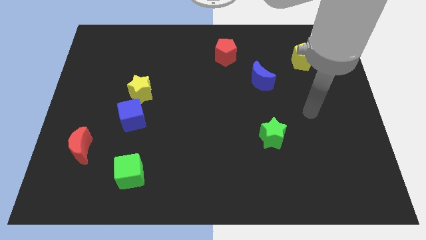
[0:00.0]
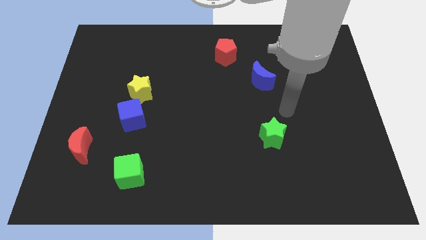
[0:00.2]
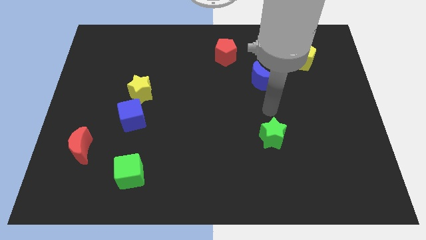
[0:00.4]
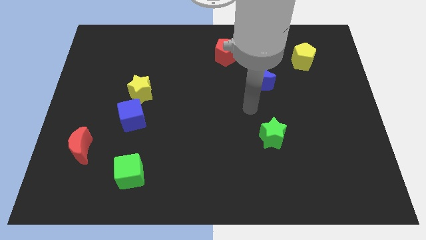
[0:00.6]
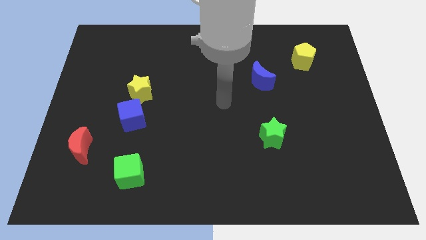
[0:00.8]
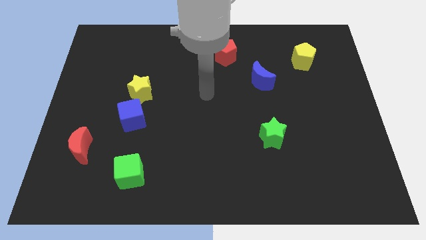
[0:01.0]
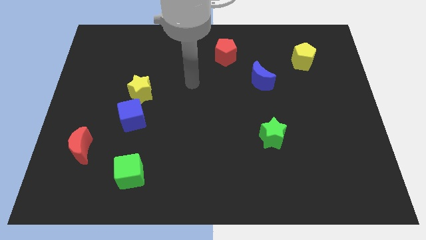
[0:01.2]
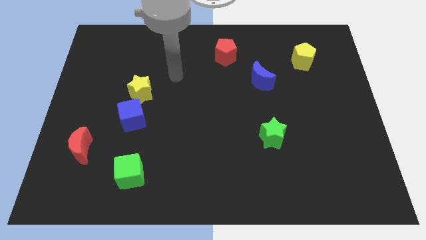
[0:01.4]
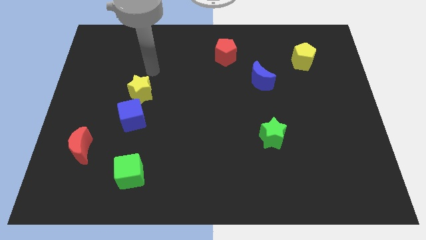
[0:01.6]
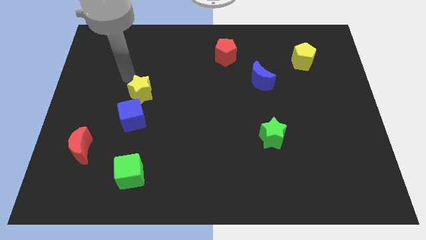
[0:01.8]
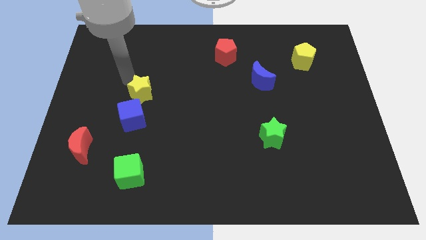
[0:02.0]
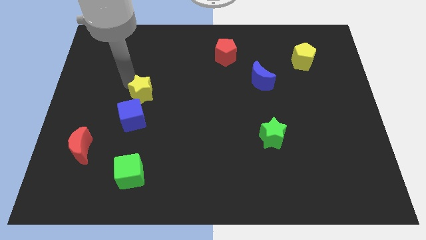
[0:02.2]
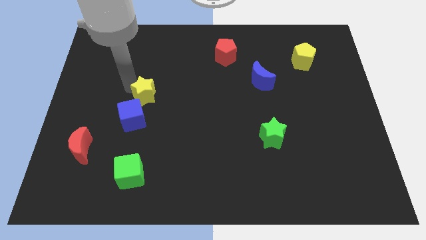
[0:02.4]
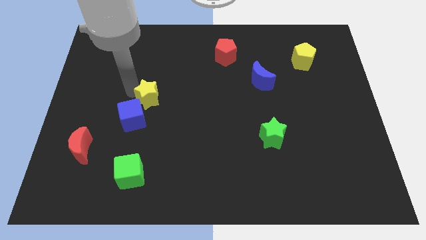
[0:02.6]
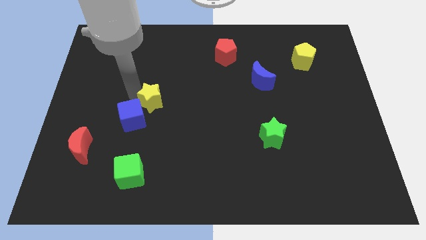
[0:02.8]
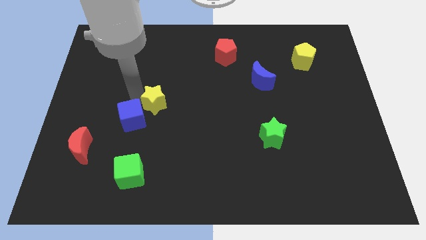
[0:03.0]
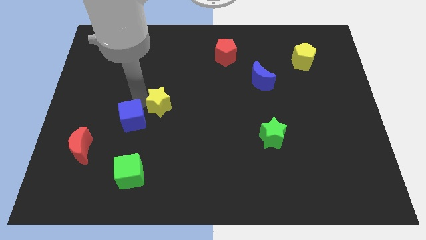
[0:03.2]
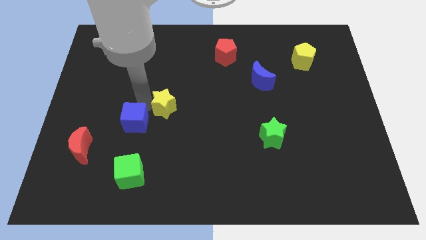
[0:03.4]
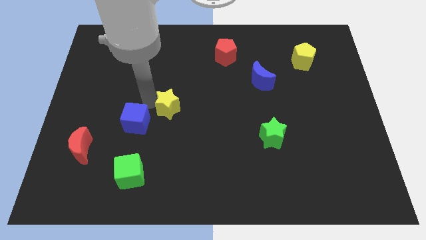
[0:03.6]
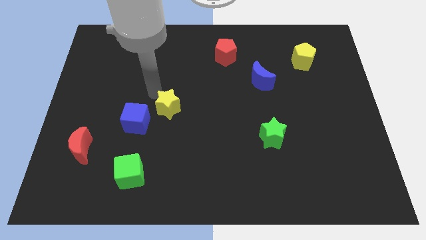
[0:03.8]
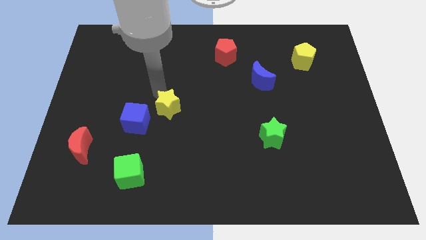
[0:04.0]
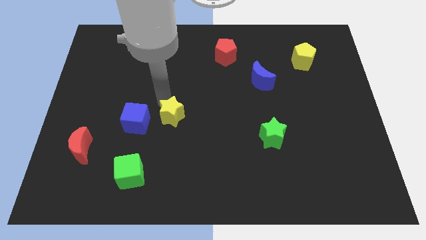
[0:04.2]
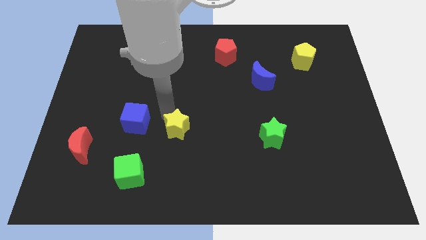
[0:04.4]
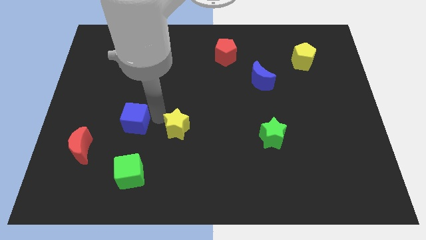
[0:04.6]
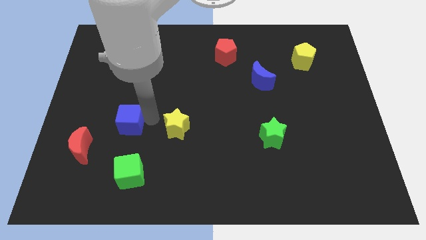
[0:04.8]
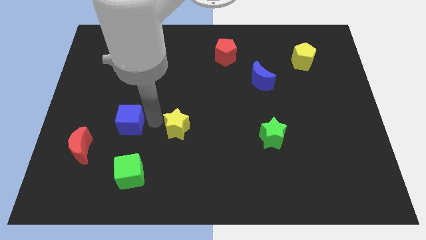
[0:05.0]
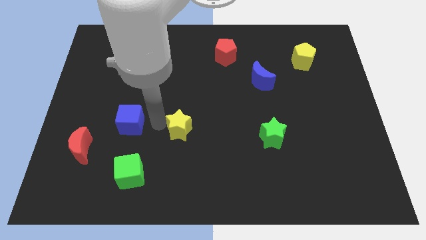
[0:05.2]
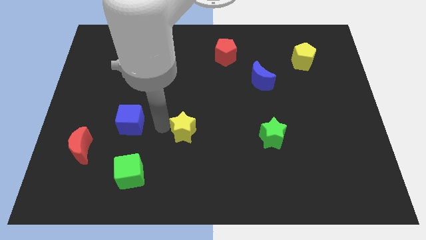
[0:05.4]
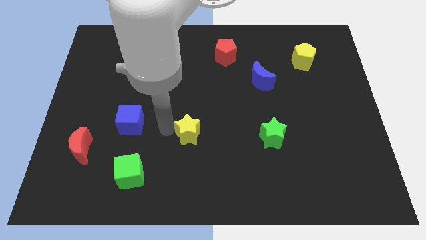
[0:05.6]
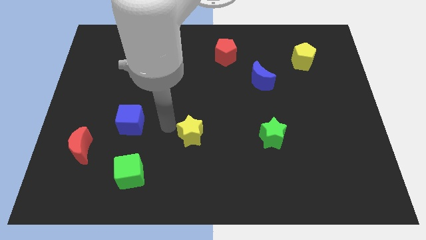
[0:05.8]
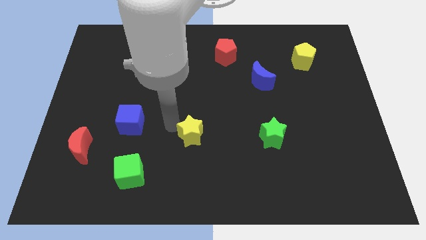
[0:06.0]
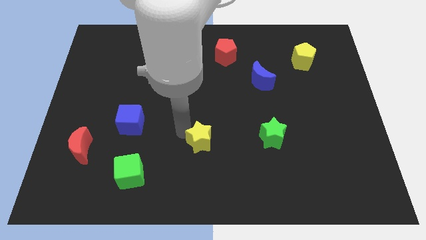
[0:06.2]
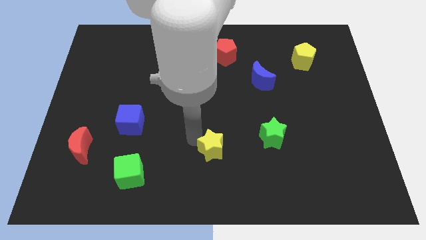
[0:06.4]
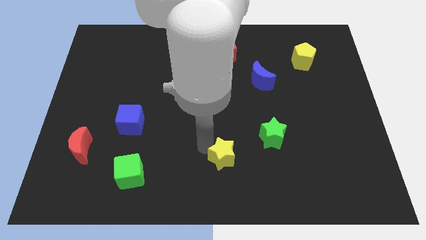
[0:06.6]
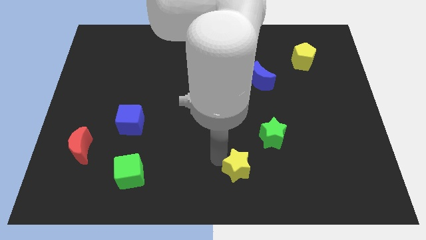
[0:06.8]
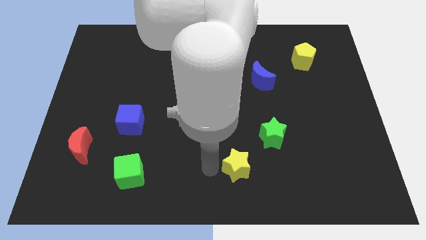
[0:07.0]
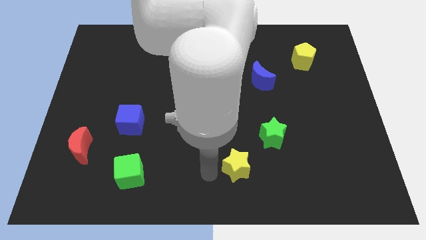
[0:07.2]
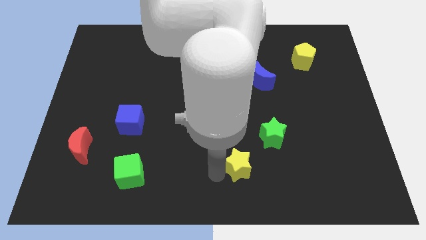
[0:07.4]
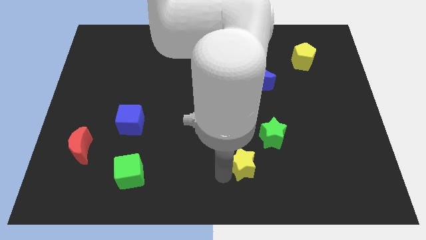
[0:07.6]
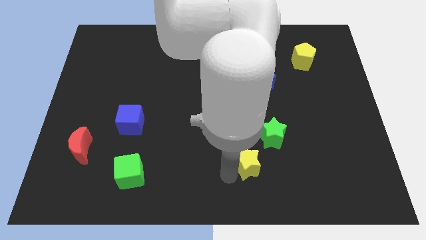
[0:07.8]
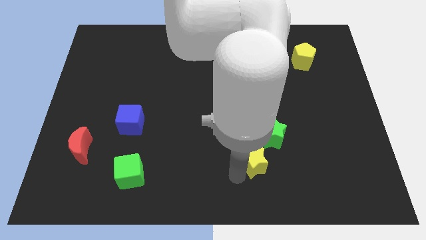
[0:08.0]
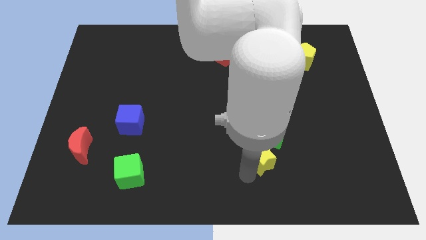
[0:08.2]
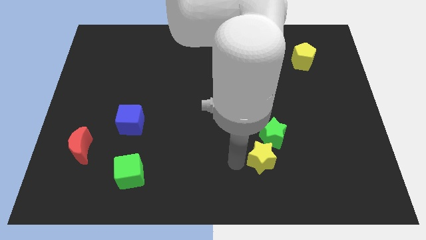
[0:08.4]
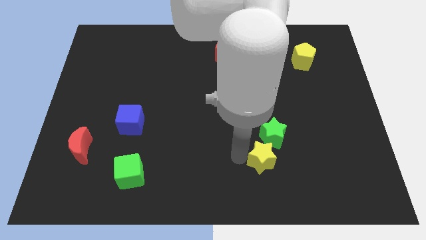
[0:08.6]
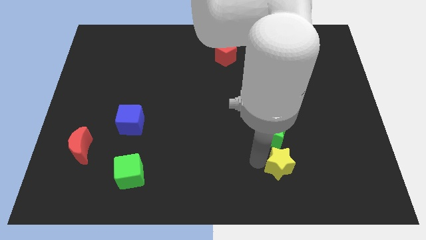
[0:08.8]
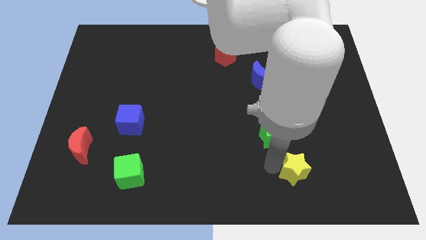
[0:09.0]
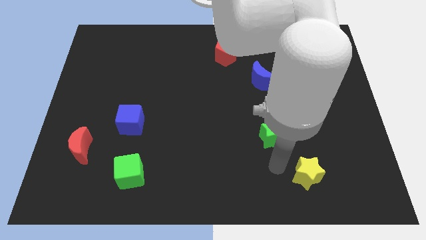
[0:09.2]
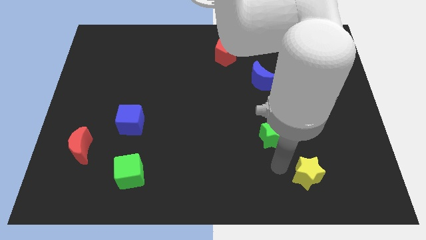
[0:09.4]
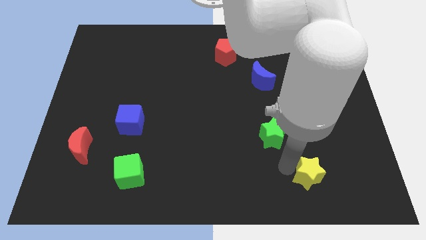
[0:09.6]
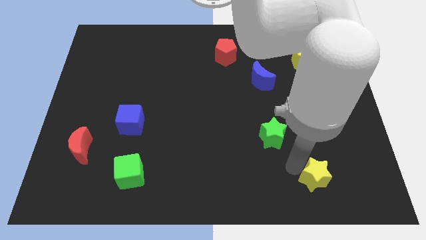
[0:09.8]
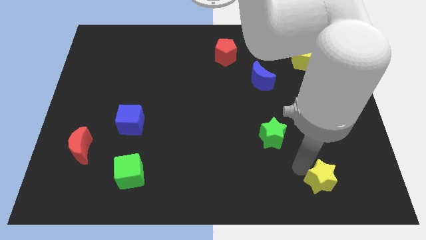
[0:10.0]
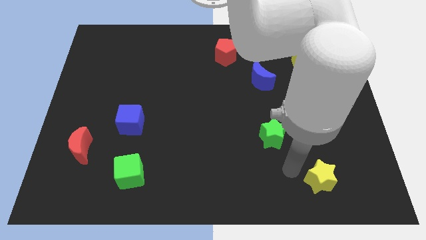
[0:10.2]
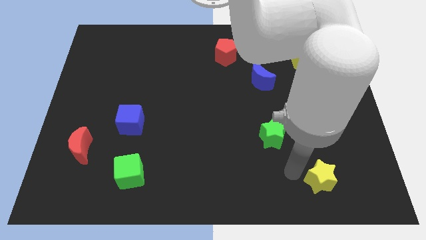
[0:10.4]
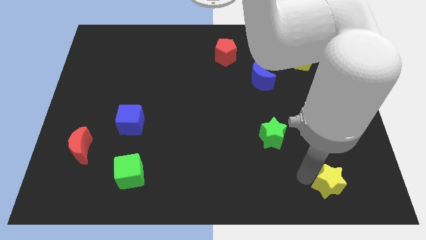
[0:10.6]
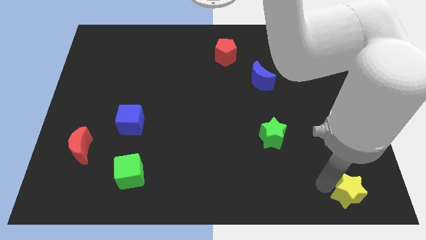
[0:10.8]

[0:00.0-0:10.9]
move the yellow star to the bottom right of the board

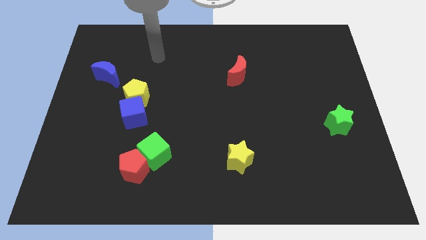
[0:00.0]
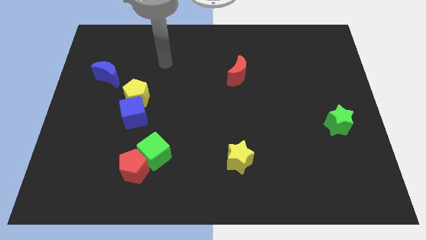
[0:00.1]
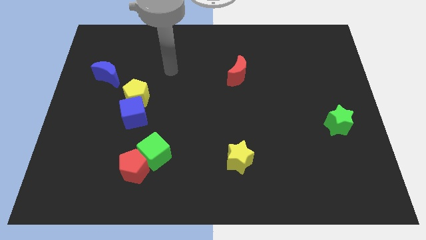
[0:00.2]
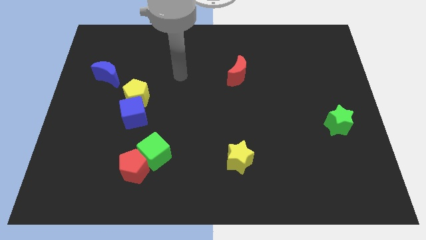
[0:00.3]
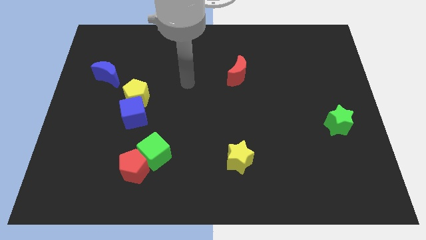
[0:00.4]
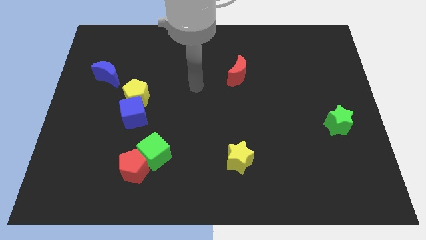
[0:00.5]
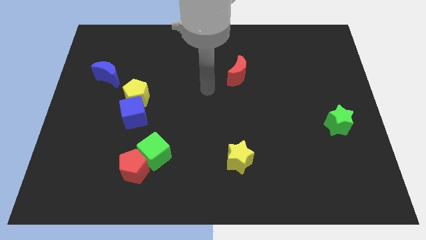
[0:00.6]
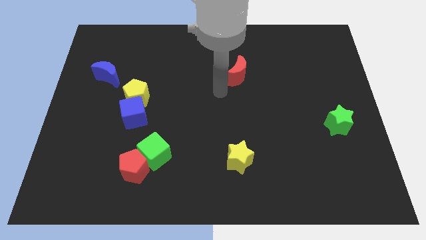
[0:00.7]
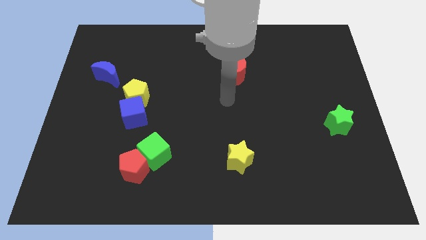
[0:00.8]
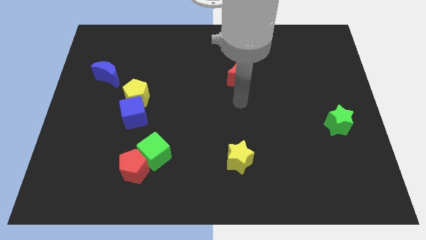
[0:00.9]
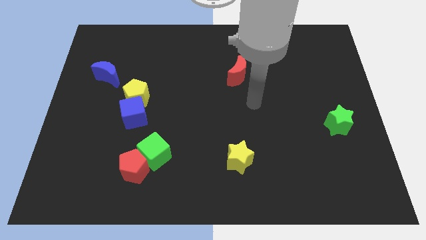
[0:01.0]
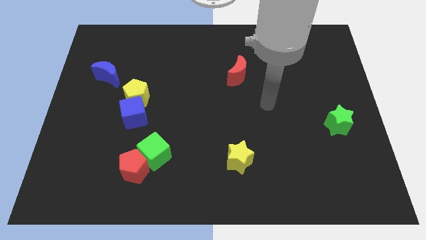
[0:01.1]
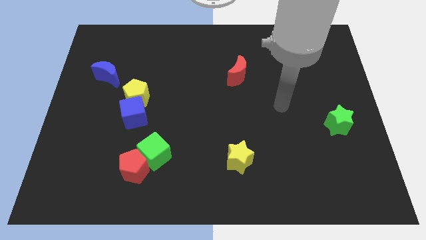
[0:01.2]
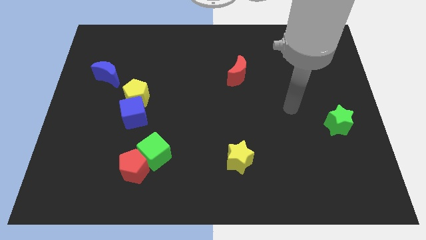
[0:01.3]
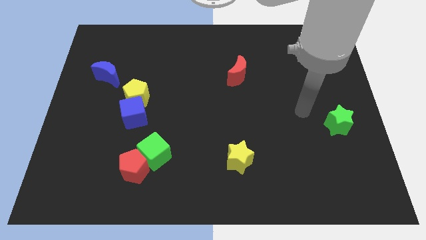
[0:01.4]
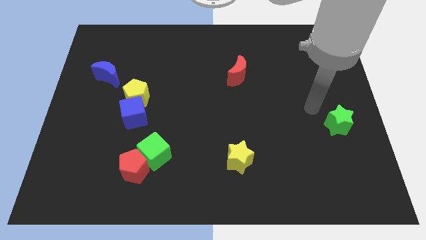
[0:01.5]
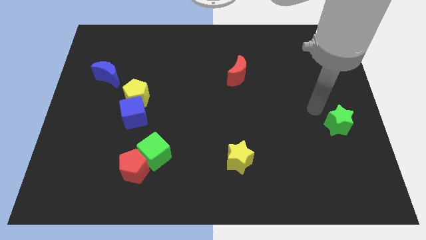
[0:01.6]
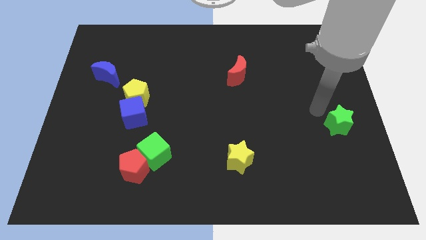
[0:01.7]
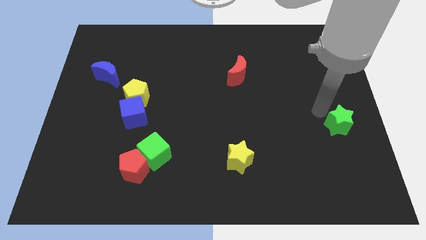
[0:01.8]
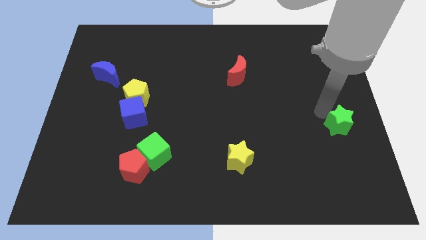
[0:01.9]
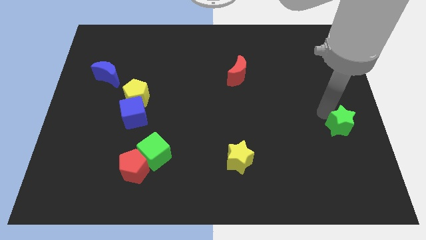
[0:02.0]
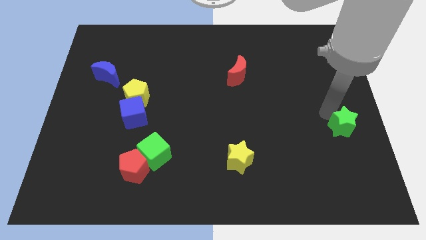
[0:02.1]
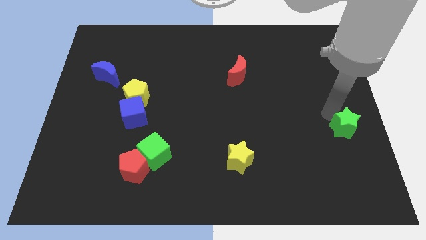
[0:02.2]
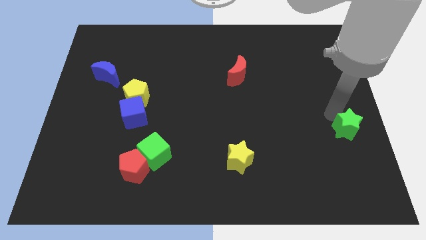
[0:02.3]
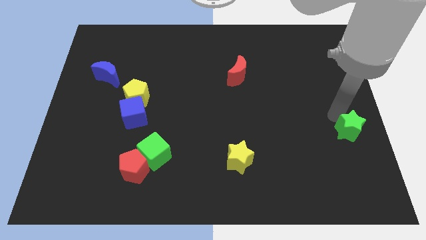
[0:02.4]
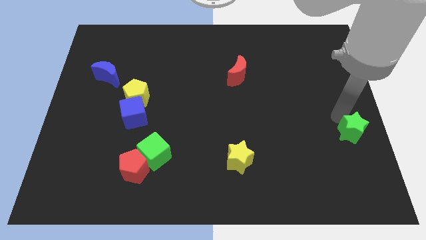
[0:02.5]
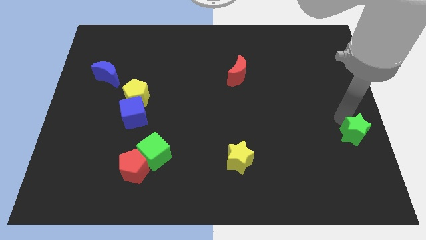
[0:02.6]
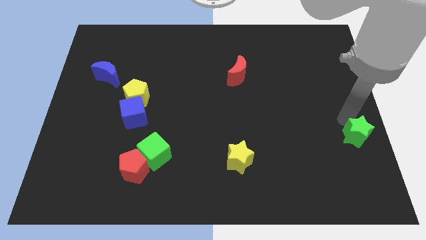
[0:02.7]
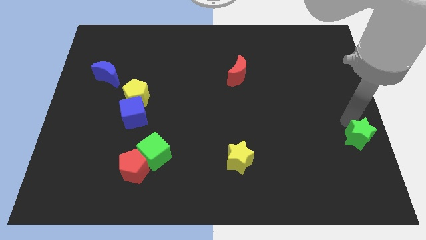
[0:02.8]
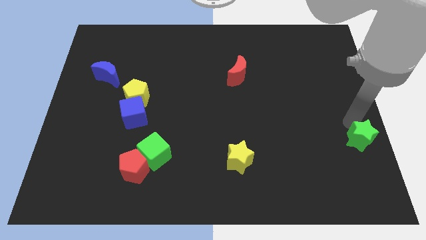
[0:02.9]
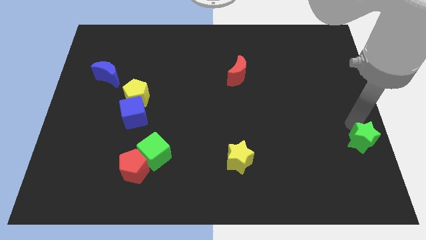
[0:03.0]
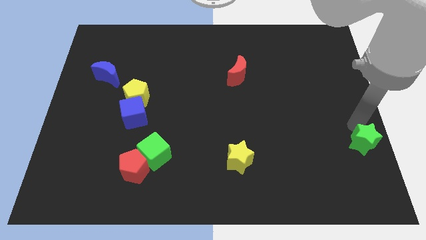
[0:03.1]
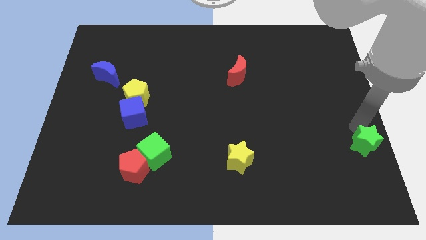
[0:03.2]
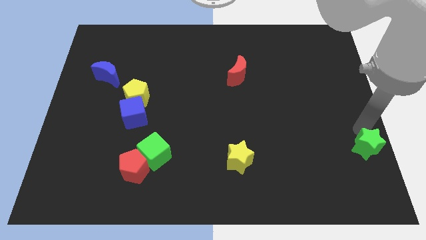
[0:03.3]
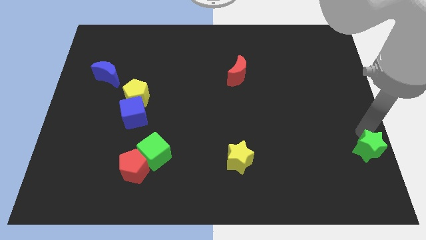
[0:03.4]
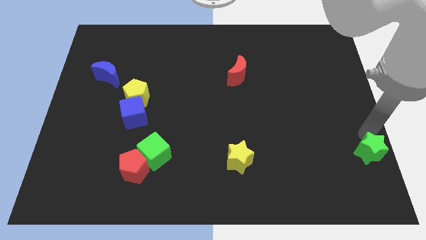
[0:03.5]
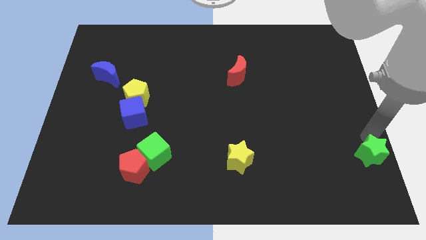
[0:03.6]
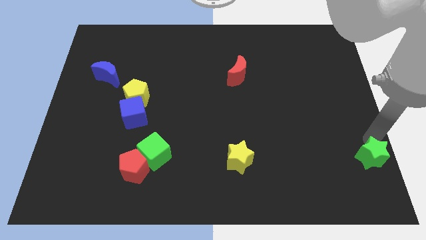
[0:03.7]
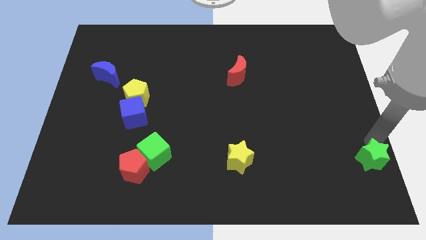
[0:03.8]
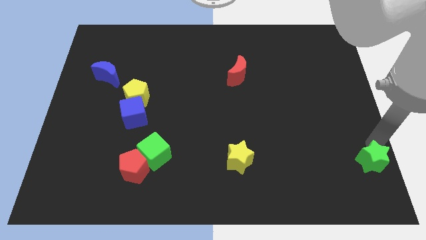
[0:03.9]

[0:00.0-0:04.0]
slide the green star to the bottom right of the board
